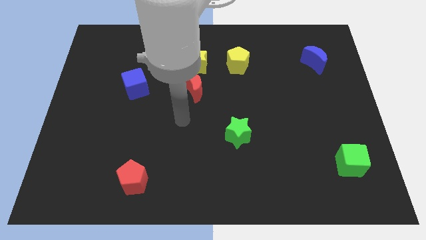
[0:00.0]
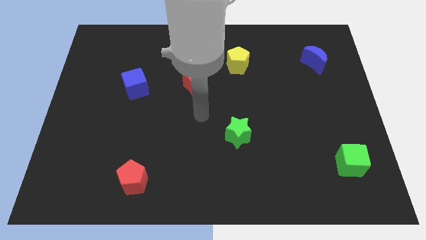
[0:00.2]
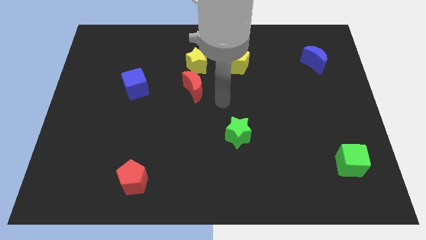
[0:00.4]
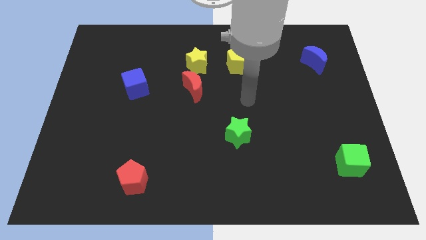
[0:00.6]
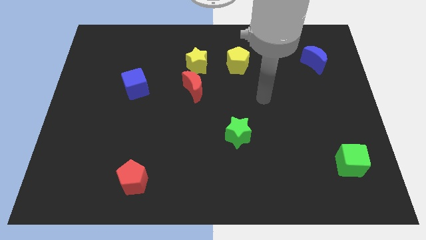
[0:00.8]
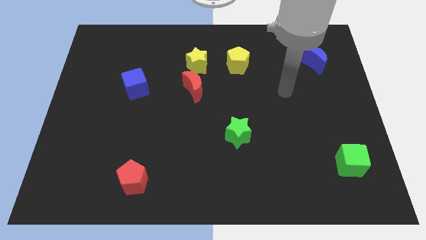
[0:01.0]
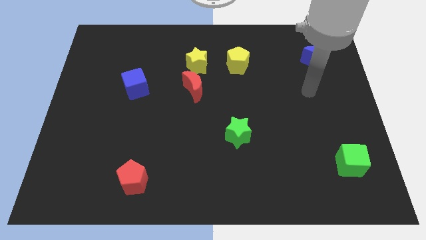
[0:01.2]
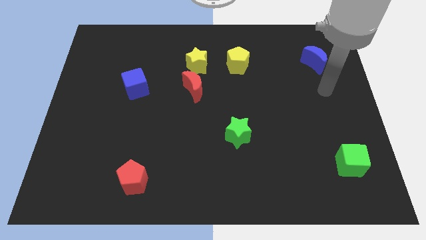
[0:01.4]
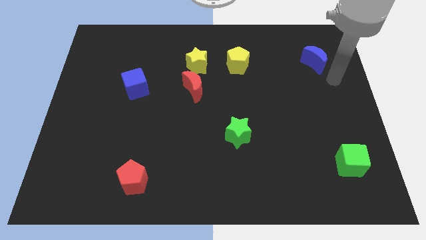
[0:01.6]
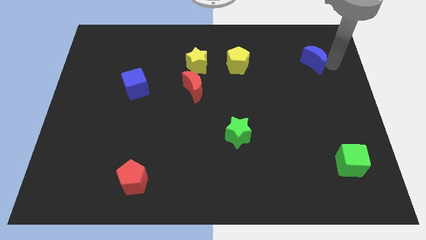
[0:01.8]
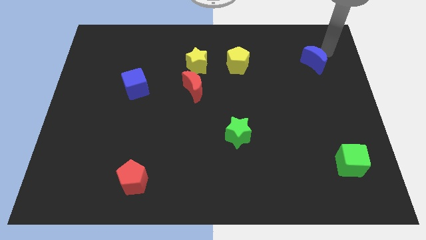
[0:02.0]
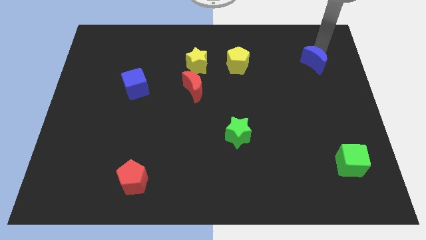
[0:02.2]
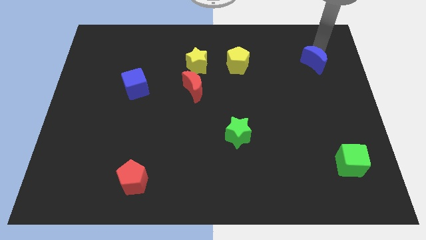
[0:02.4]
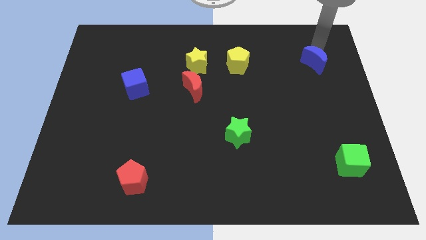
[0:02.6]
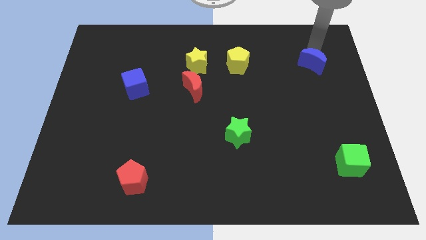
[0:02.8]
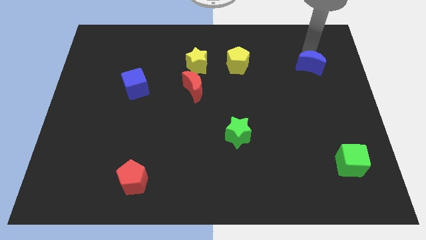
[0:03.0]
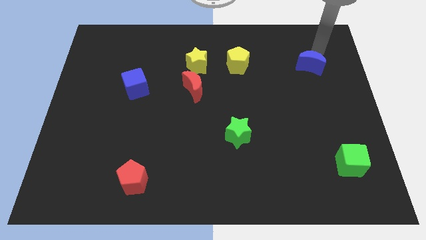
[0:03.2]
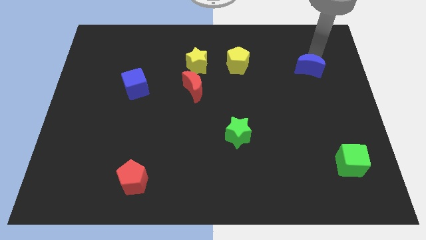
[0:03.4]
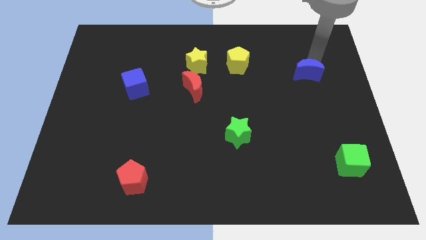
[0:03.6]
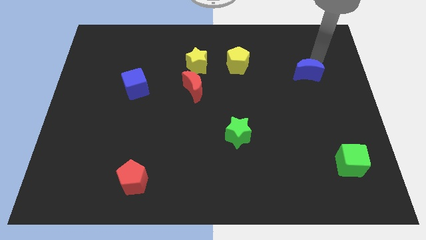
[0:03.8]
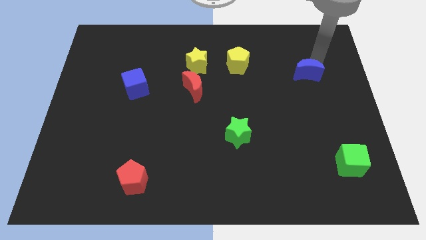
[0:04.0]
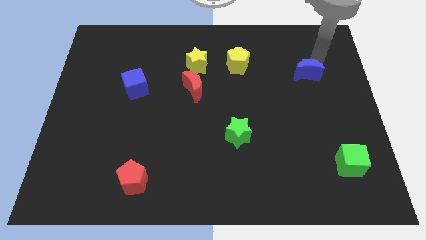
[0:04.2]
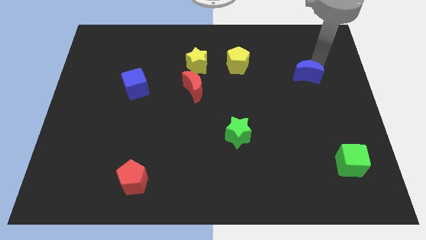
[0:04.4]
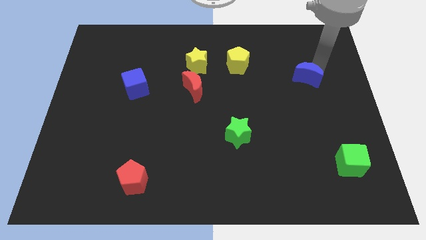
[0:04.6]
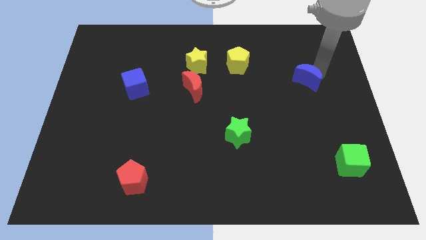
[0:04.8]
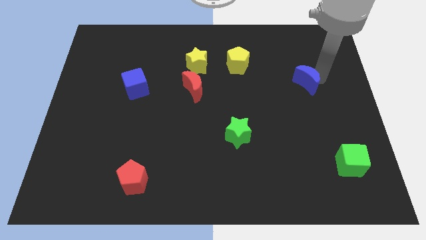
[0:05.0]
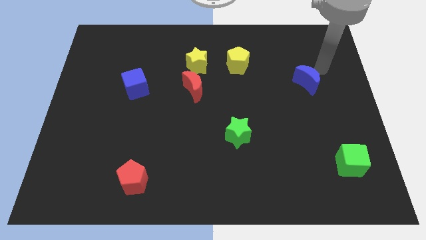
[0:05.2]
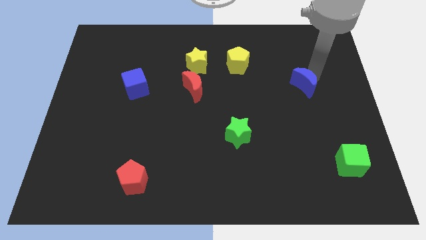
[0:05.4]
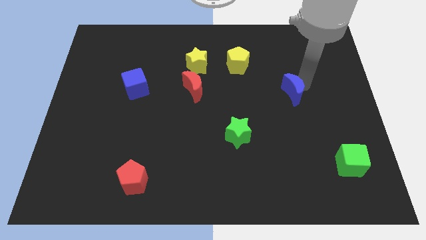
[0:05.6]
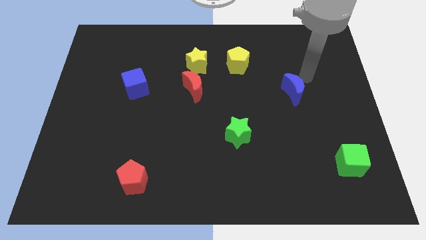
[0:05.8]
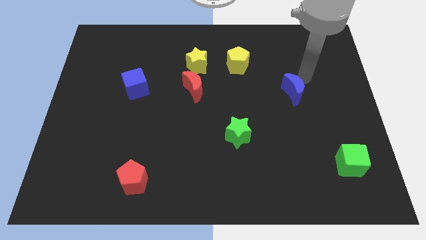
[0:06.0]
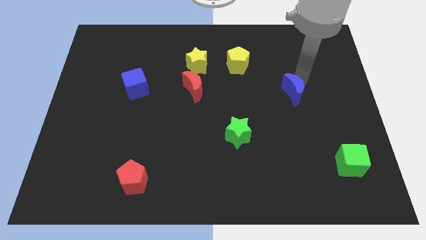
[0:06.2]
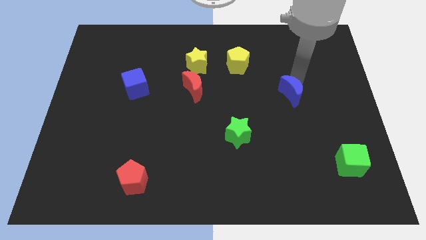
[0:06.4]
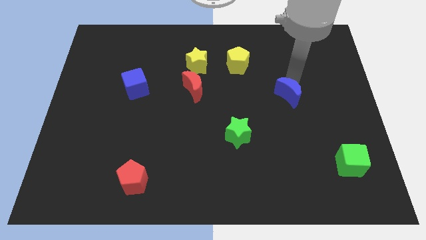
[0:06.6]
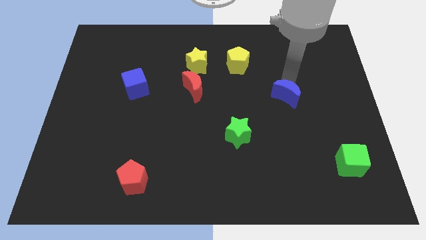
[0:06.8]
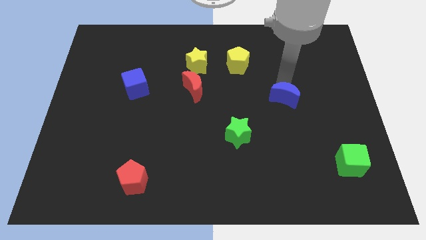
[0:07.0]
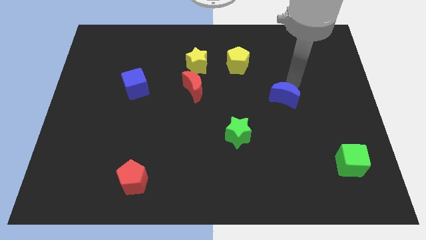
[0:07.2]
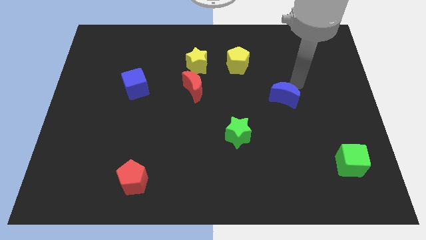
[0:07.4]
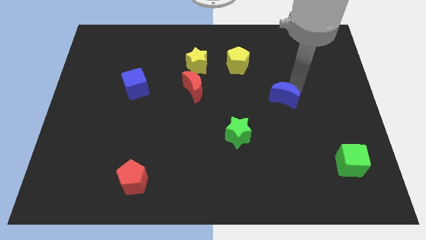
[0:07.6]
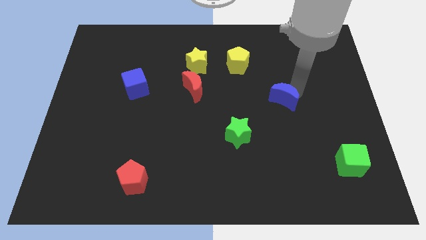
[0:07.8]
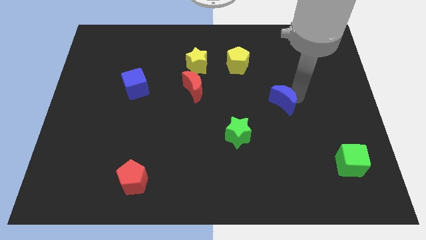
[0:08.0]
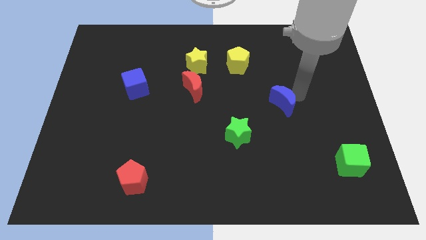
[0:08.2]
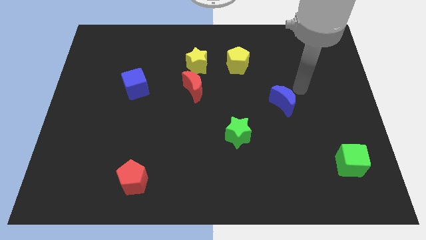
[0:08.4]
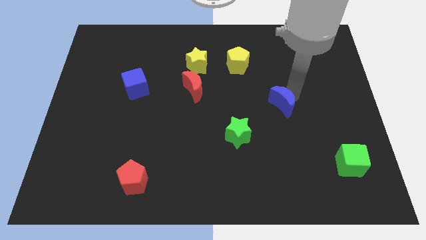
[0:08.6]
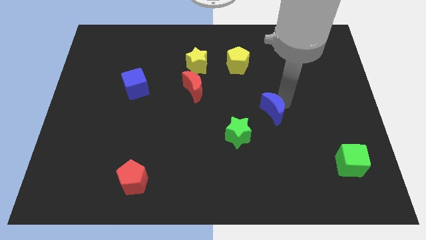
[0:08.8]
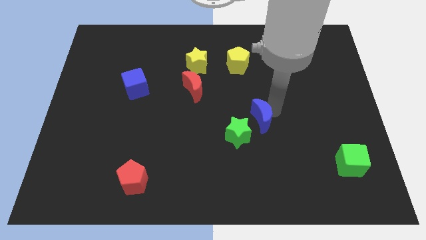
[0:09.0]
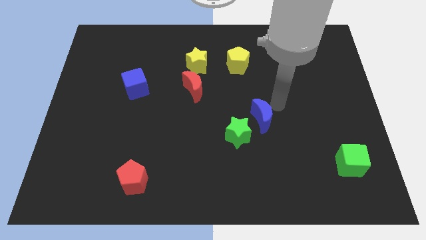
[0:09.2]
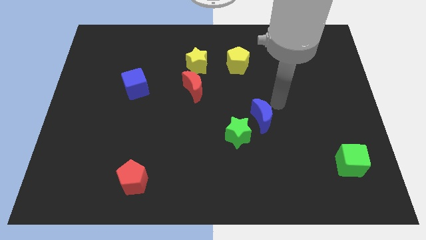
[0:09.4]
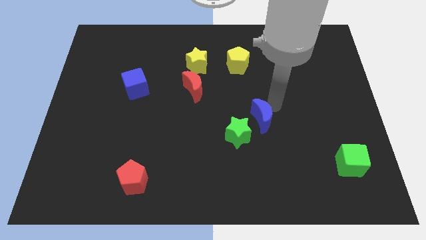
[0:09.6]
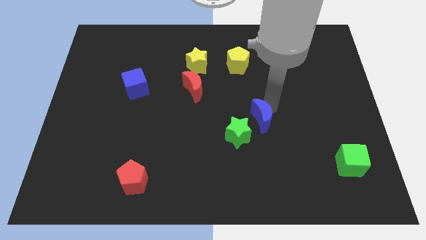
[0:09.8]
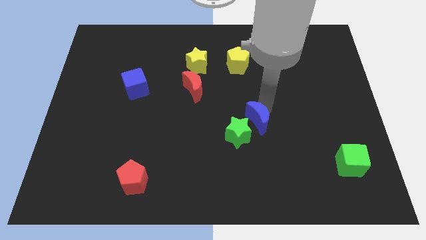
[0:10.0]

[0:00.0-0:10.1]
put the blue moon next to the green star

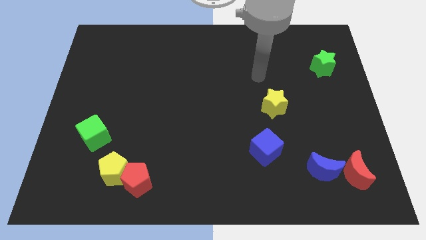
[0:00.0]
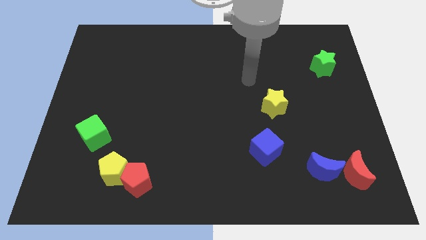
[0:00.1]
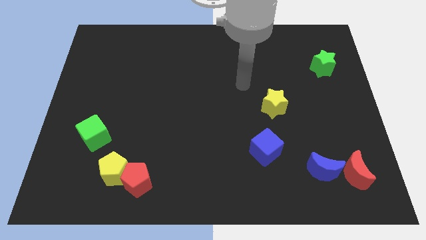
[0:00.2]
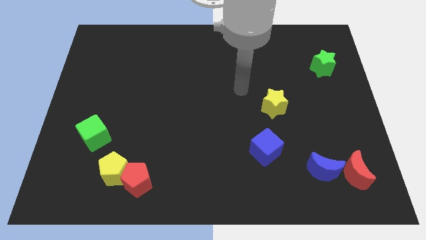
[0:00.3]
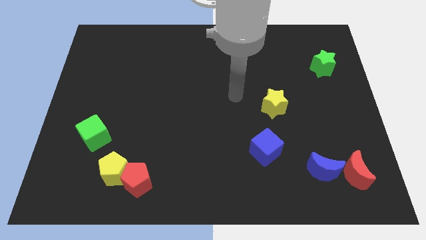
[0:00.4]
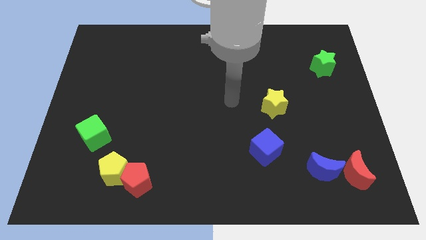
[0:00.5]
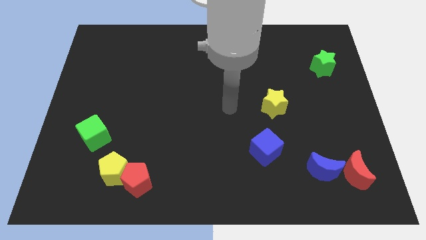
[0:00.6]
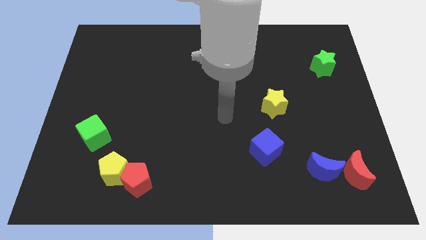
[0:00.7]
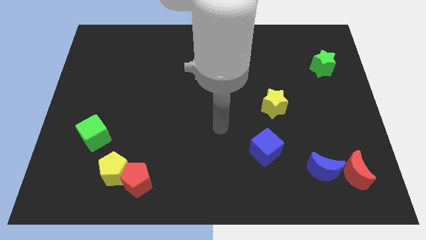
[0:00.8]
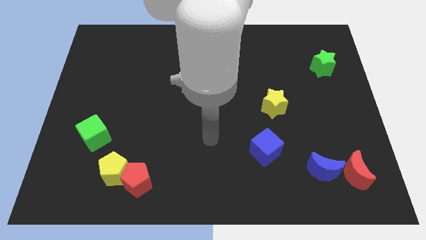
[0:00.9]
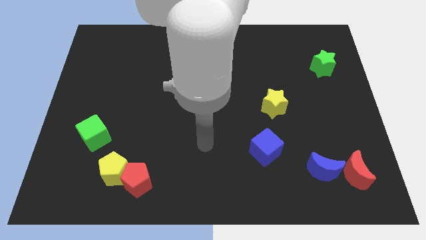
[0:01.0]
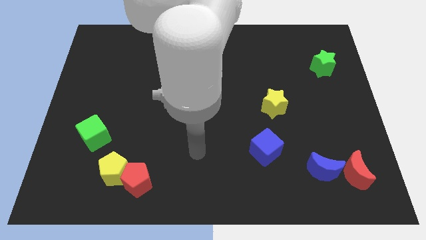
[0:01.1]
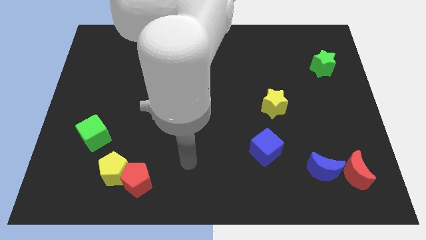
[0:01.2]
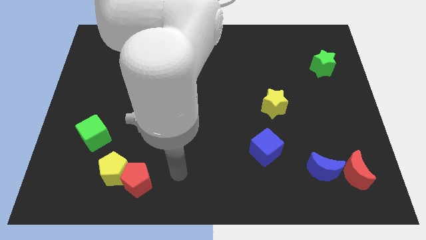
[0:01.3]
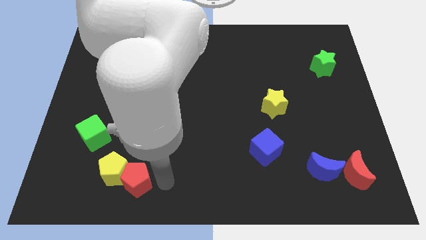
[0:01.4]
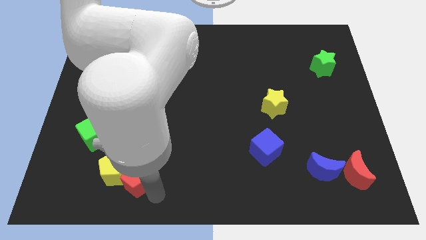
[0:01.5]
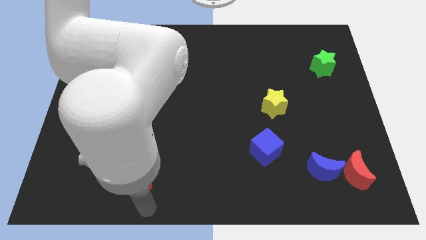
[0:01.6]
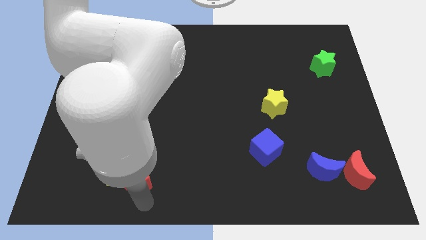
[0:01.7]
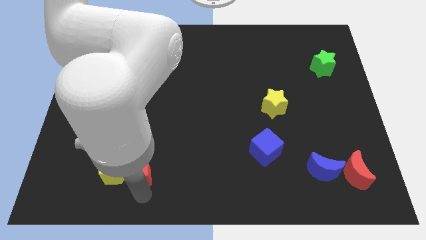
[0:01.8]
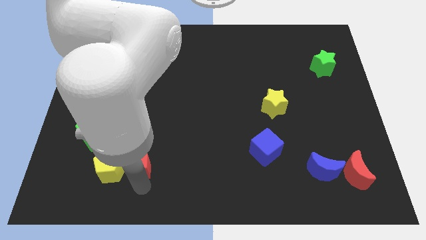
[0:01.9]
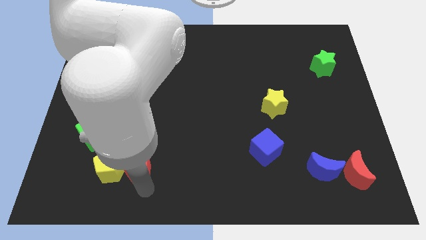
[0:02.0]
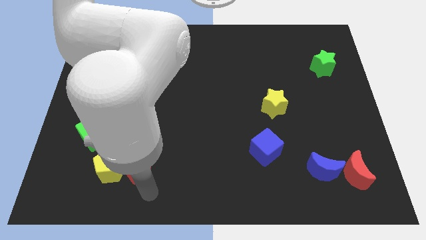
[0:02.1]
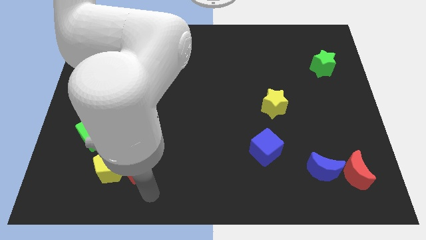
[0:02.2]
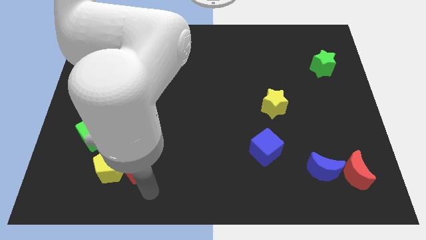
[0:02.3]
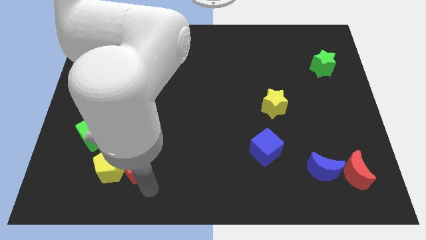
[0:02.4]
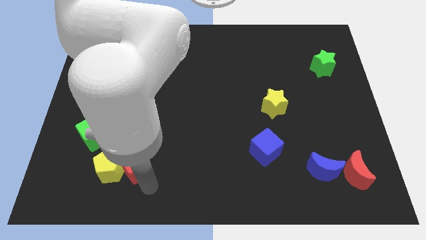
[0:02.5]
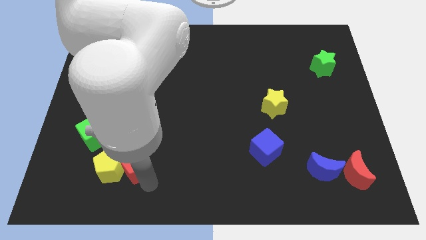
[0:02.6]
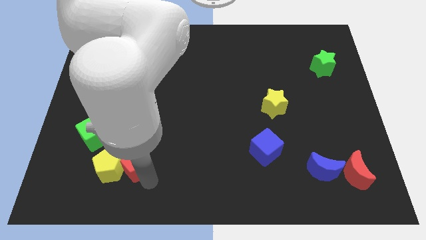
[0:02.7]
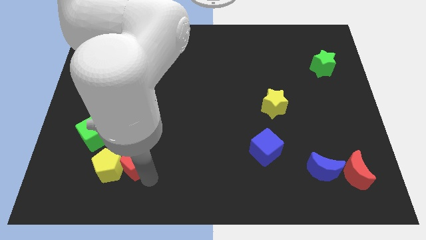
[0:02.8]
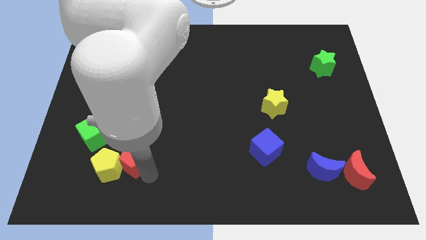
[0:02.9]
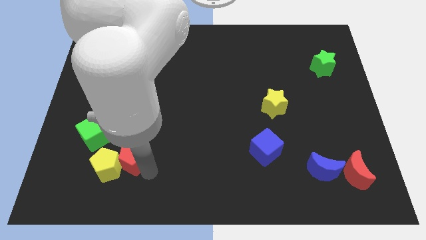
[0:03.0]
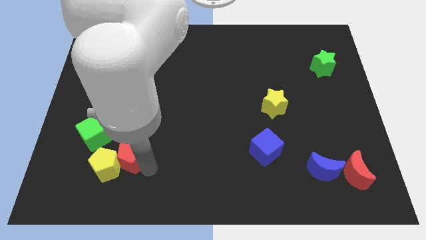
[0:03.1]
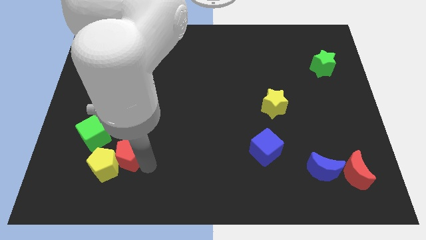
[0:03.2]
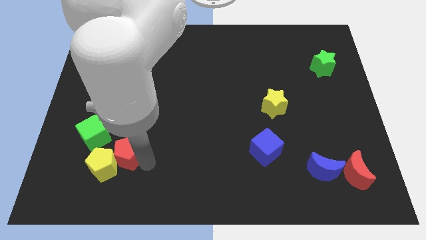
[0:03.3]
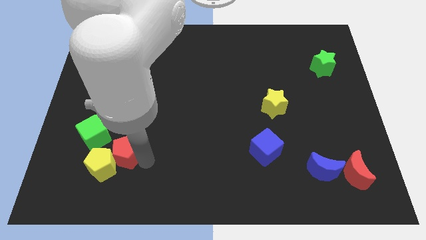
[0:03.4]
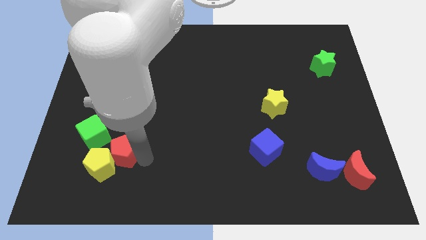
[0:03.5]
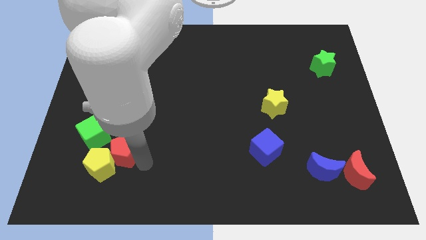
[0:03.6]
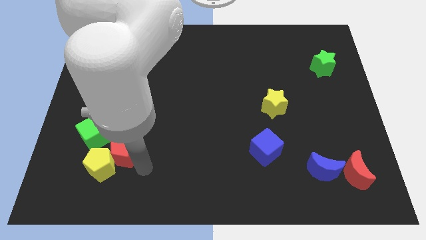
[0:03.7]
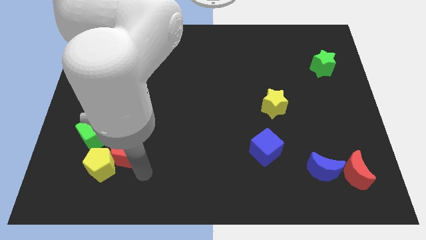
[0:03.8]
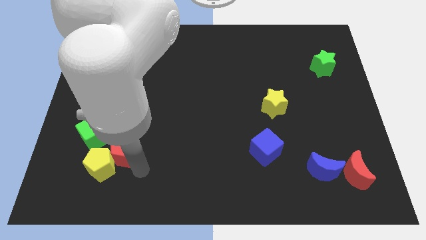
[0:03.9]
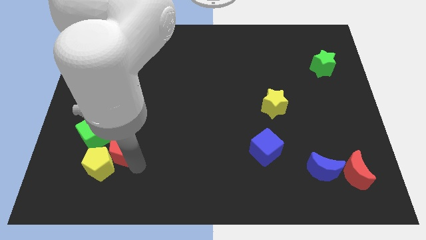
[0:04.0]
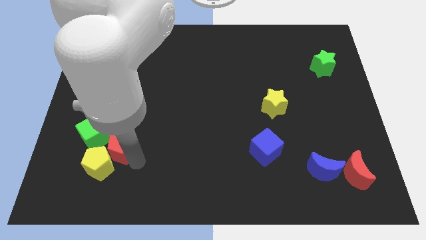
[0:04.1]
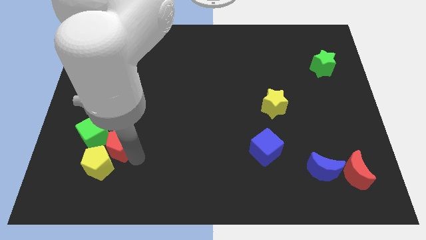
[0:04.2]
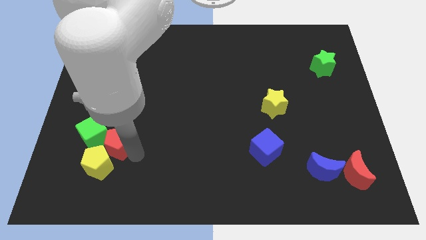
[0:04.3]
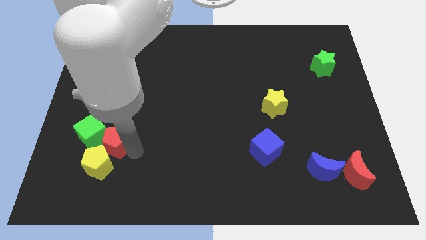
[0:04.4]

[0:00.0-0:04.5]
move the red pentagon close to the green cube
